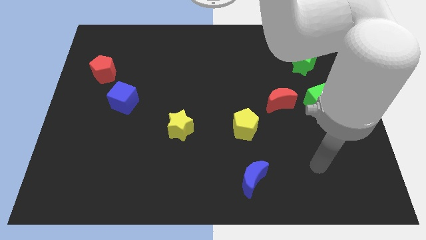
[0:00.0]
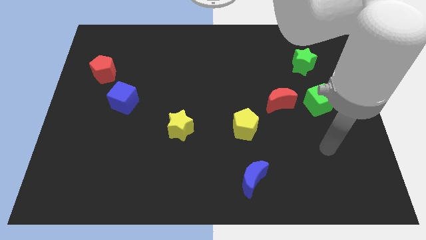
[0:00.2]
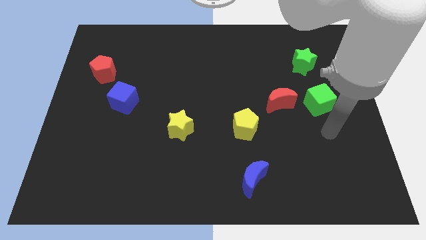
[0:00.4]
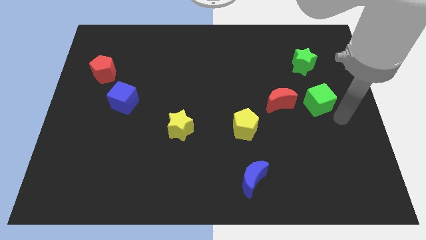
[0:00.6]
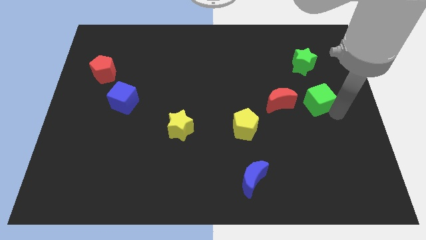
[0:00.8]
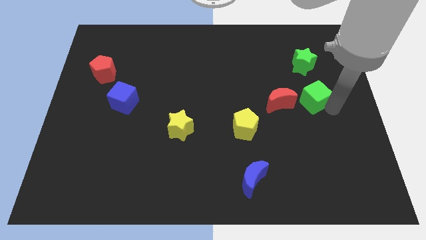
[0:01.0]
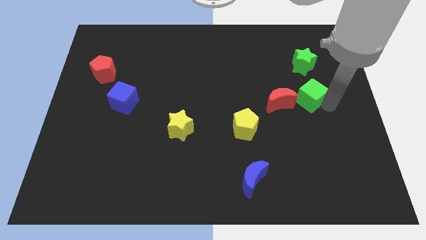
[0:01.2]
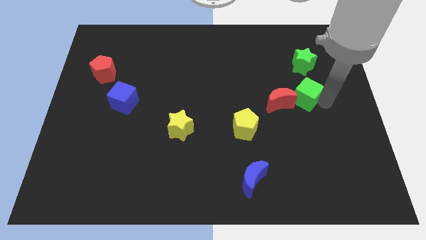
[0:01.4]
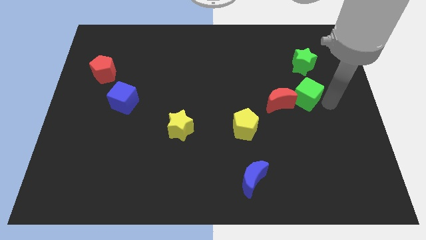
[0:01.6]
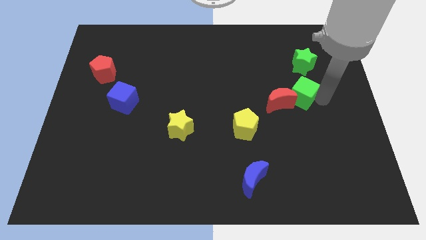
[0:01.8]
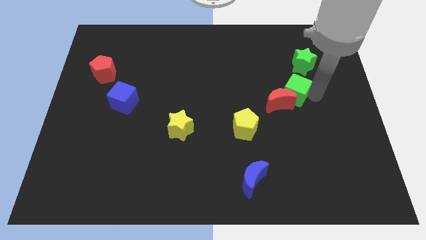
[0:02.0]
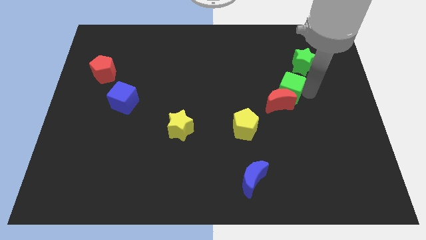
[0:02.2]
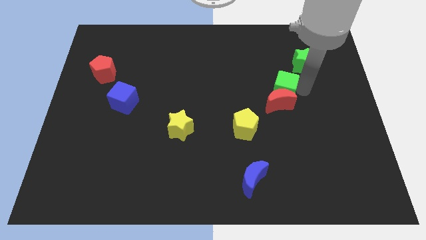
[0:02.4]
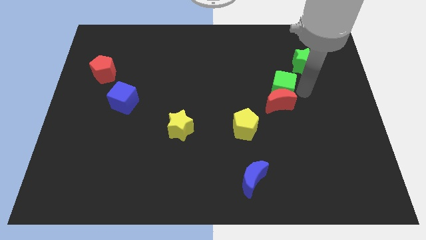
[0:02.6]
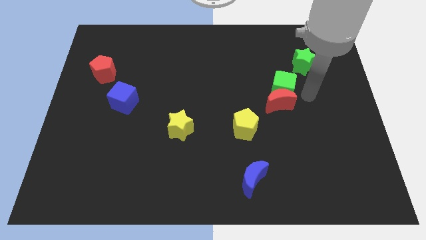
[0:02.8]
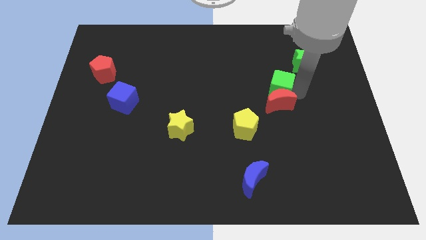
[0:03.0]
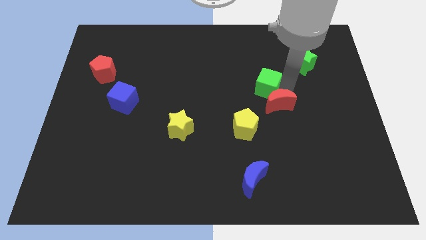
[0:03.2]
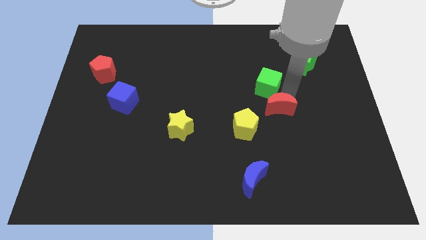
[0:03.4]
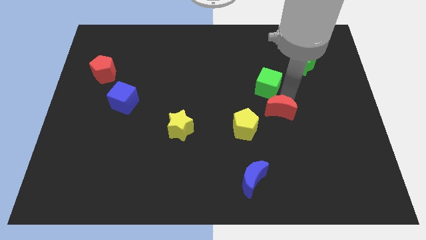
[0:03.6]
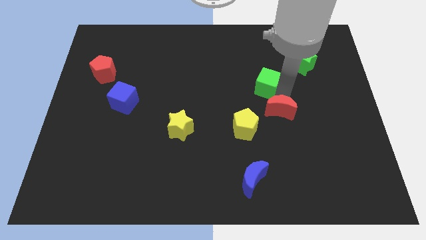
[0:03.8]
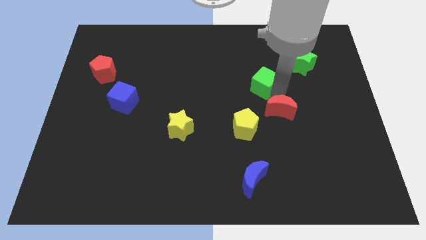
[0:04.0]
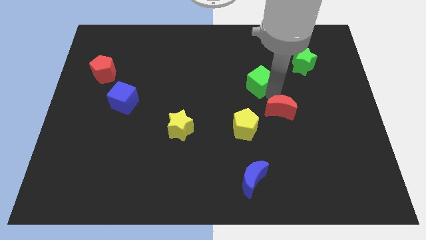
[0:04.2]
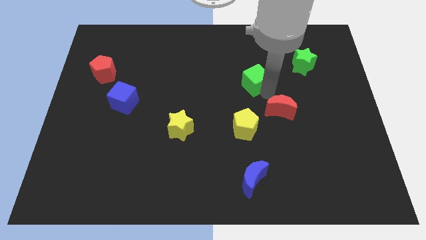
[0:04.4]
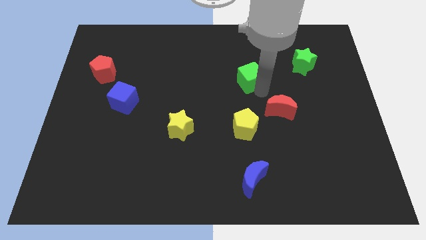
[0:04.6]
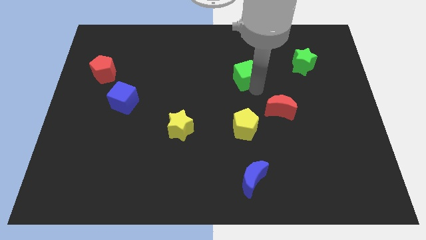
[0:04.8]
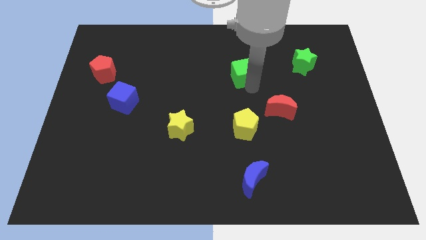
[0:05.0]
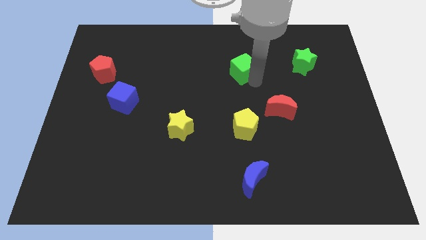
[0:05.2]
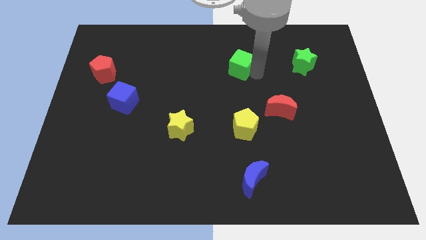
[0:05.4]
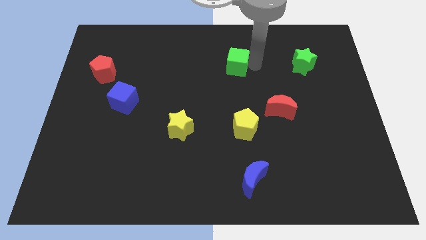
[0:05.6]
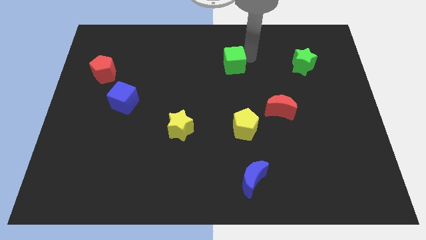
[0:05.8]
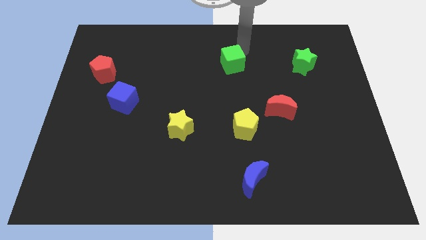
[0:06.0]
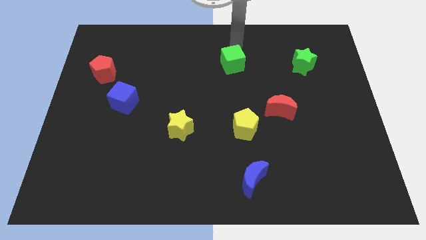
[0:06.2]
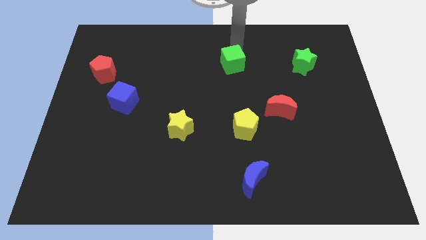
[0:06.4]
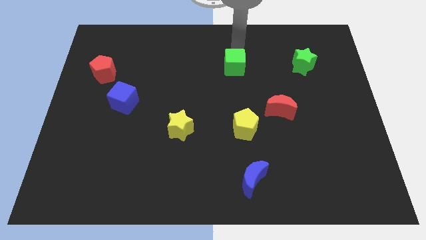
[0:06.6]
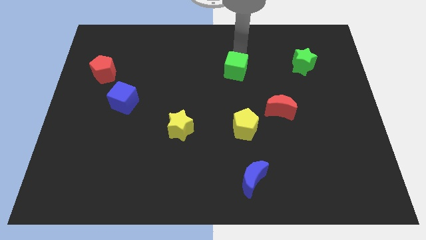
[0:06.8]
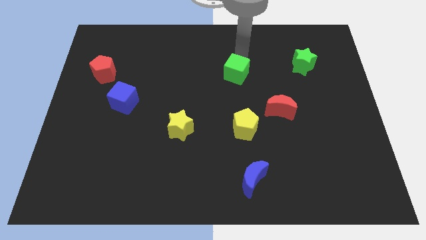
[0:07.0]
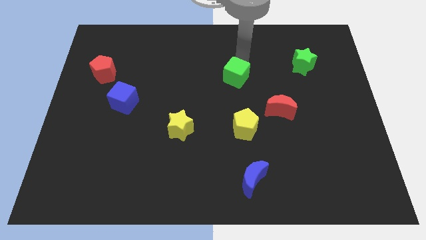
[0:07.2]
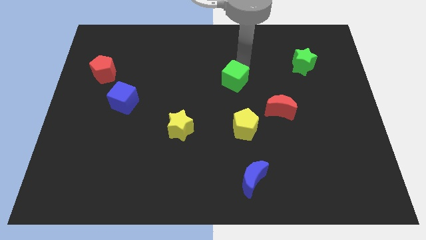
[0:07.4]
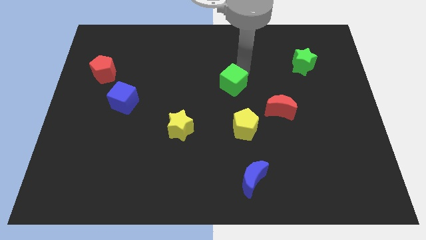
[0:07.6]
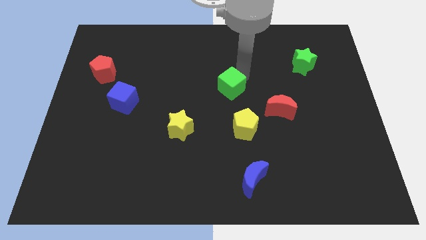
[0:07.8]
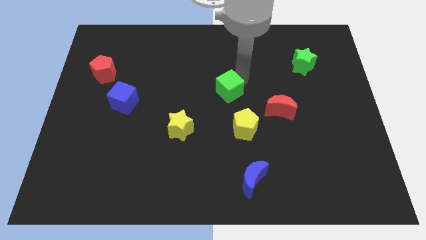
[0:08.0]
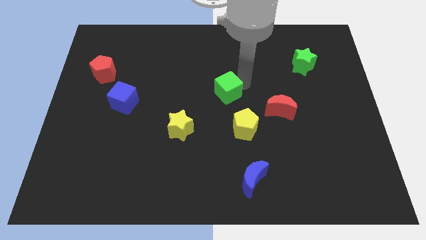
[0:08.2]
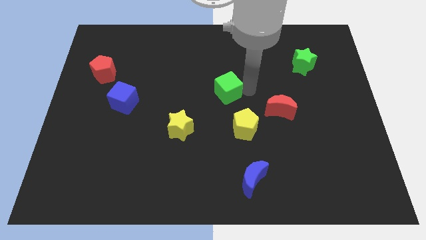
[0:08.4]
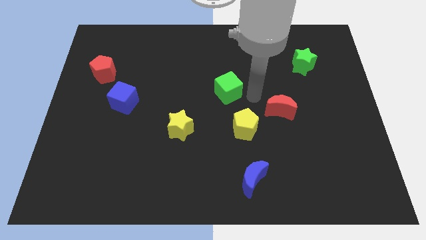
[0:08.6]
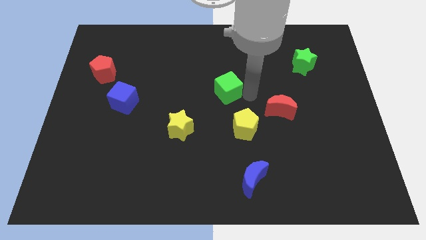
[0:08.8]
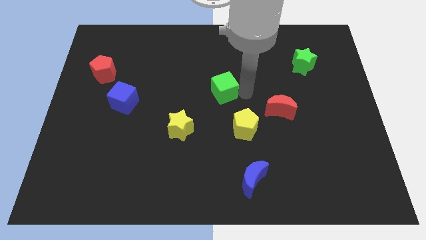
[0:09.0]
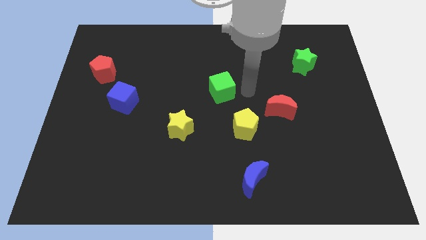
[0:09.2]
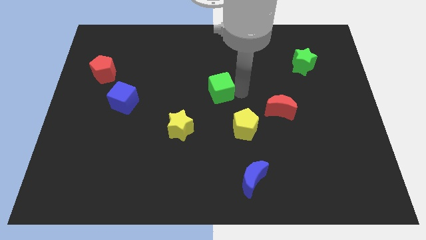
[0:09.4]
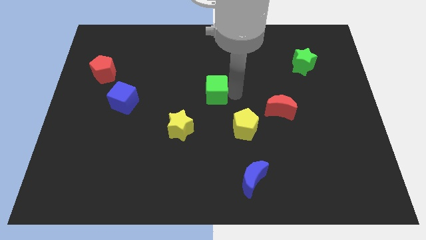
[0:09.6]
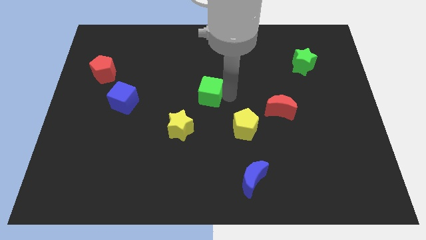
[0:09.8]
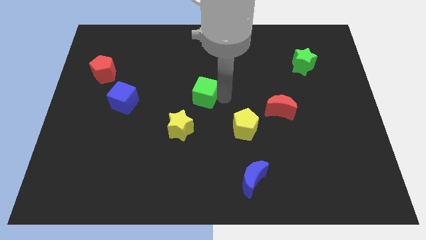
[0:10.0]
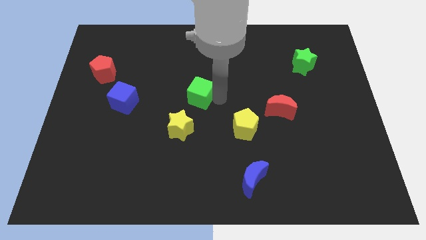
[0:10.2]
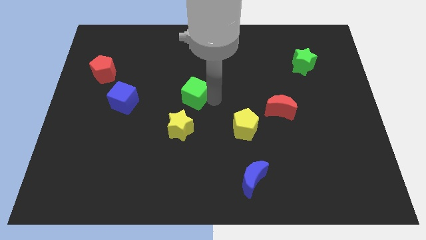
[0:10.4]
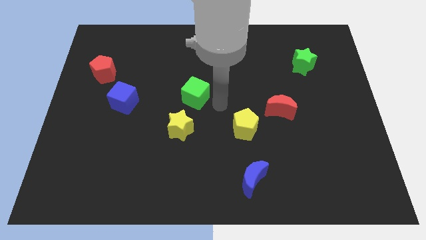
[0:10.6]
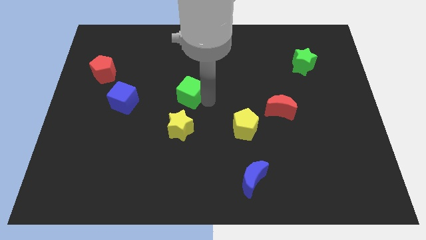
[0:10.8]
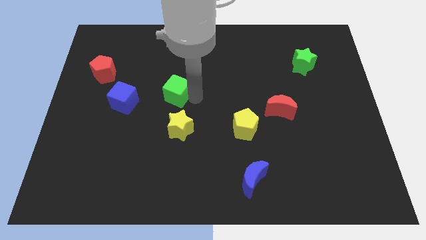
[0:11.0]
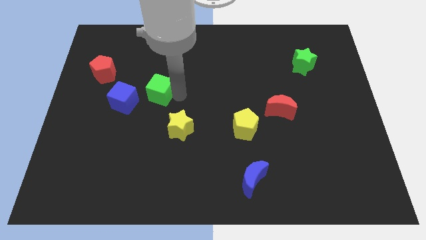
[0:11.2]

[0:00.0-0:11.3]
slide the green cube to the top right of the blue cube

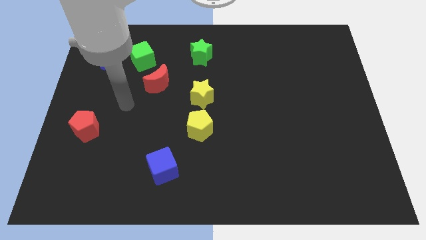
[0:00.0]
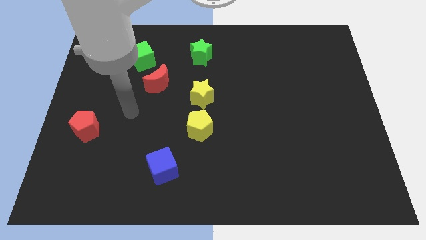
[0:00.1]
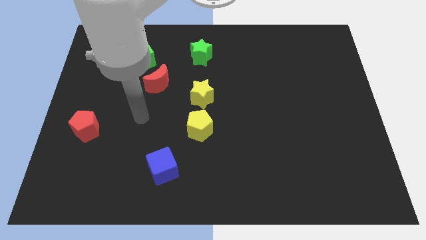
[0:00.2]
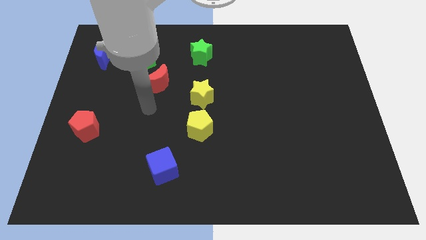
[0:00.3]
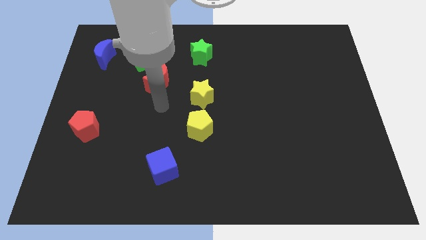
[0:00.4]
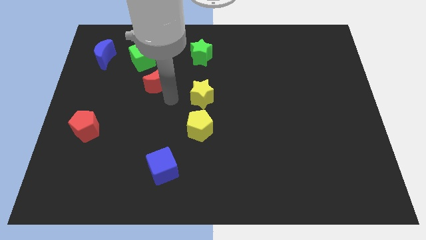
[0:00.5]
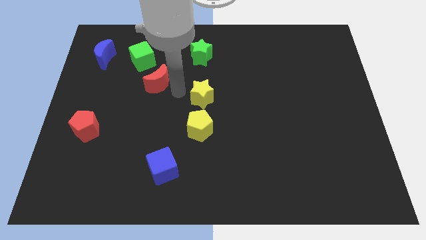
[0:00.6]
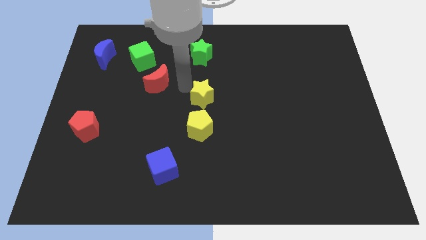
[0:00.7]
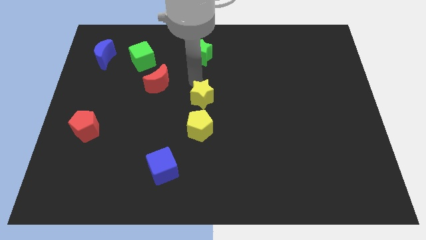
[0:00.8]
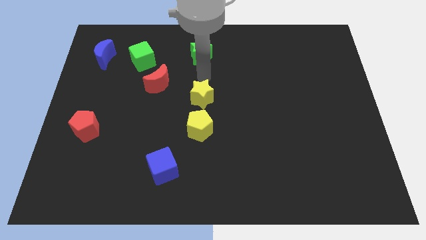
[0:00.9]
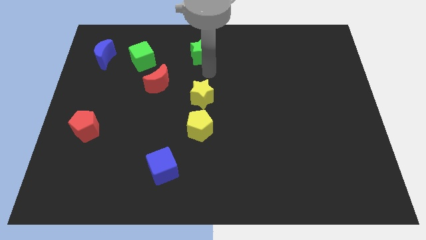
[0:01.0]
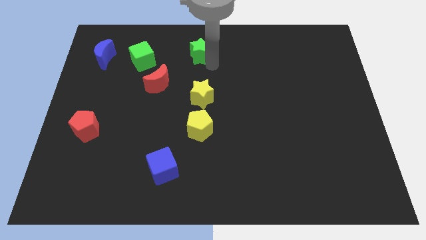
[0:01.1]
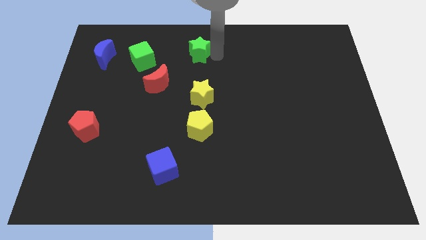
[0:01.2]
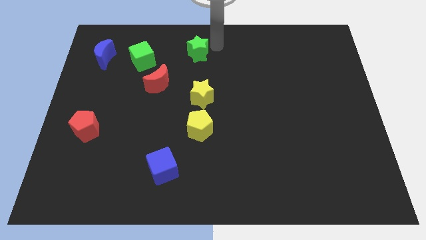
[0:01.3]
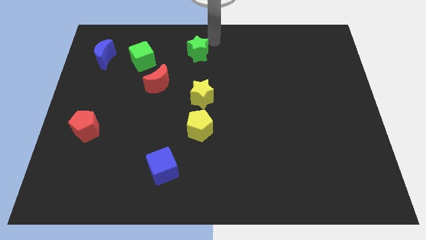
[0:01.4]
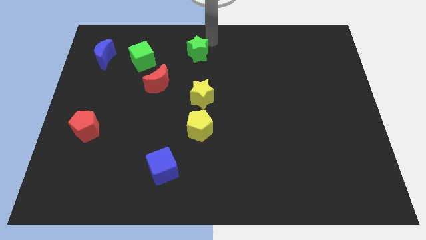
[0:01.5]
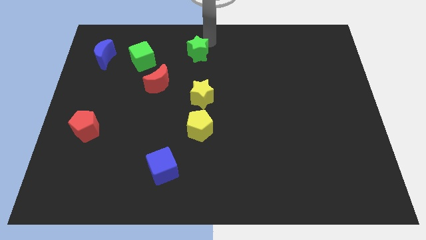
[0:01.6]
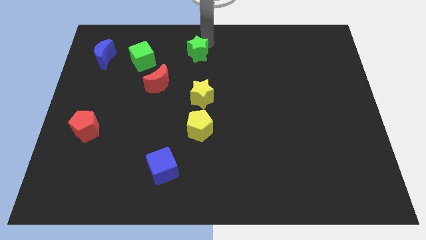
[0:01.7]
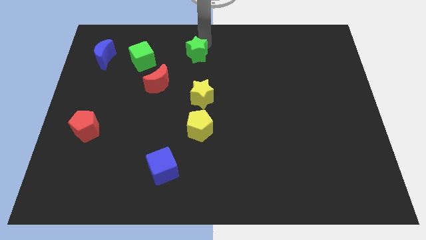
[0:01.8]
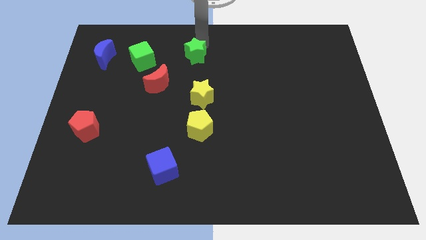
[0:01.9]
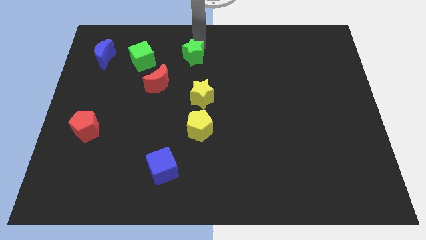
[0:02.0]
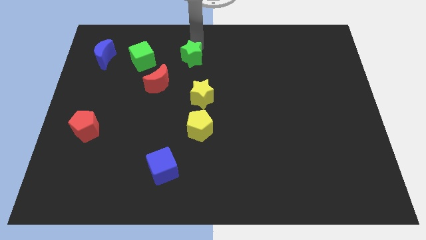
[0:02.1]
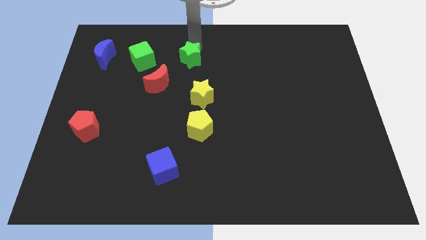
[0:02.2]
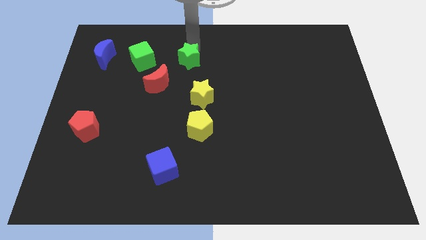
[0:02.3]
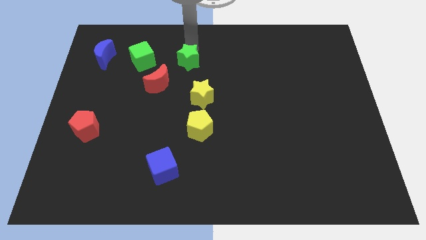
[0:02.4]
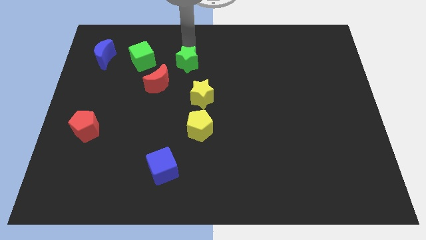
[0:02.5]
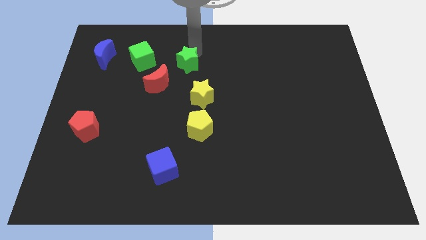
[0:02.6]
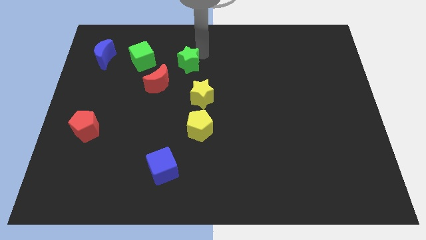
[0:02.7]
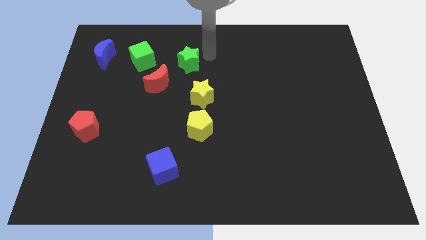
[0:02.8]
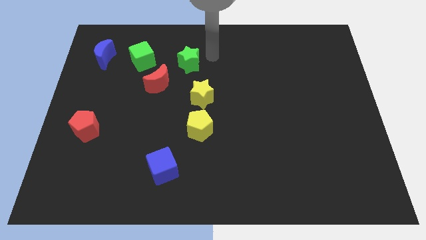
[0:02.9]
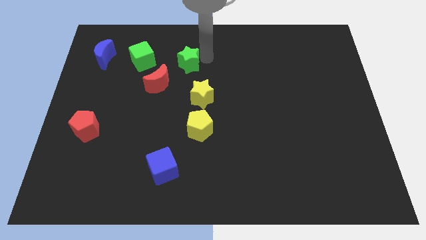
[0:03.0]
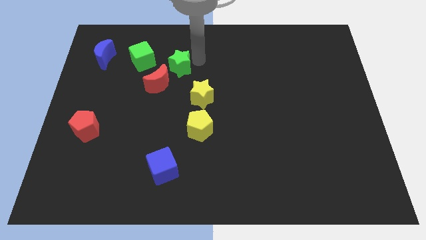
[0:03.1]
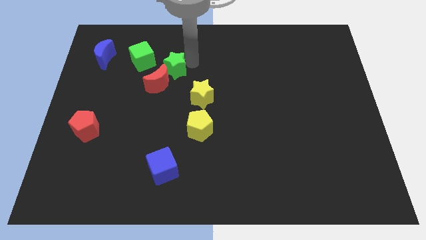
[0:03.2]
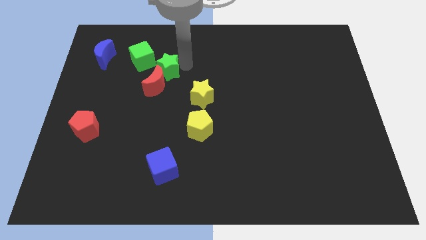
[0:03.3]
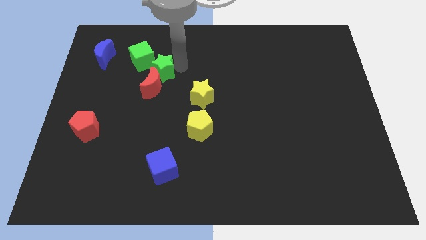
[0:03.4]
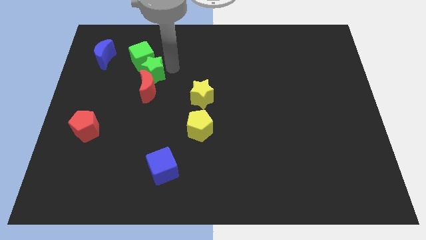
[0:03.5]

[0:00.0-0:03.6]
move the green star below the green cube
